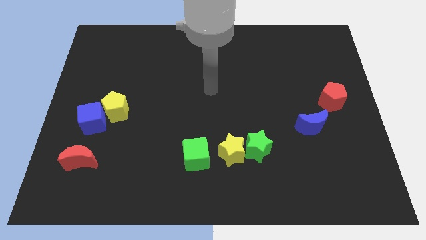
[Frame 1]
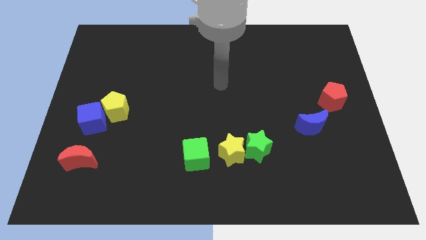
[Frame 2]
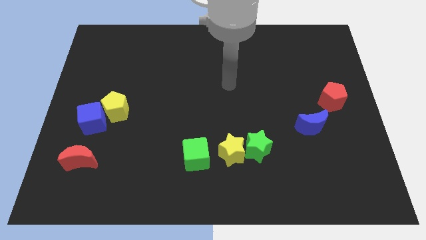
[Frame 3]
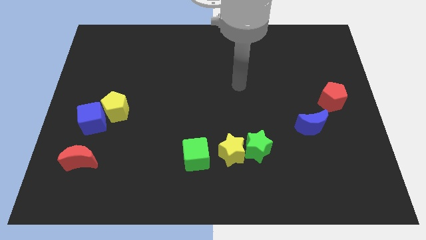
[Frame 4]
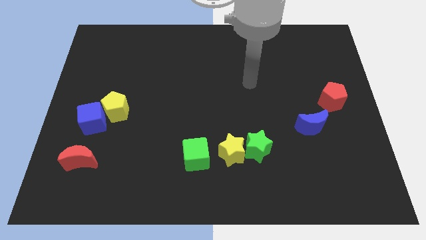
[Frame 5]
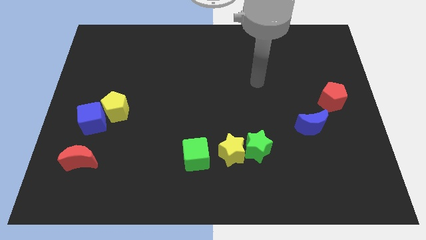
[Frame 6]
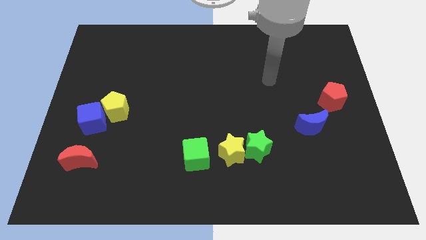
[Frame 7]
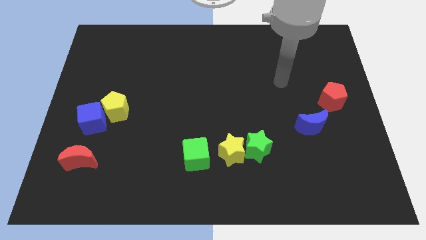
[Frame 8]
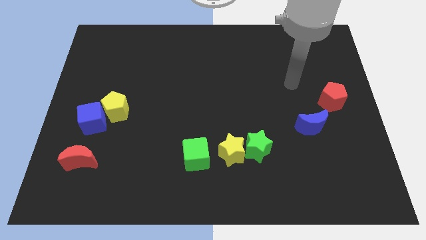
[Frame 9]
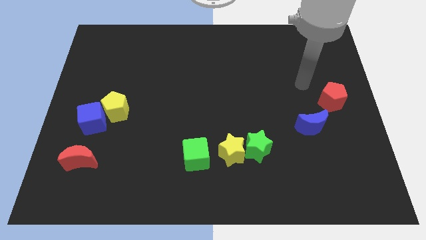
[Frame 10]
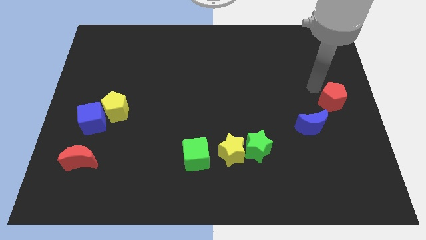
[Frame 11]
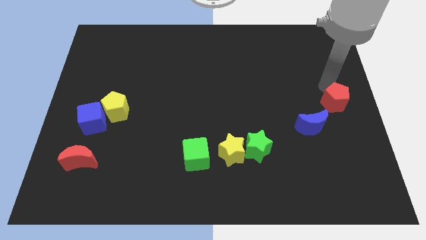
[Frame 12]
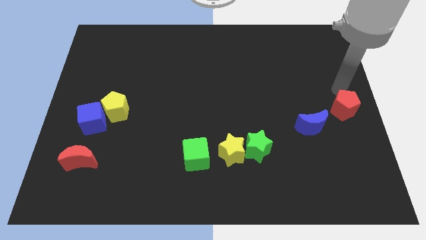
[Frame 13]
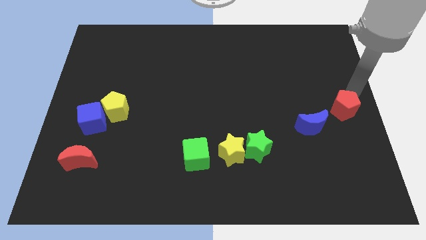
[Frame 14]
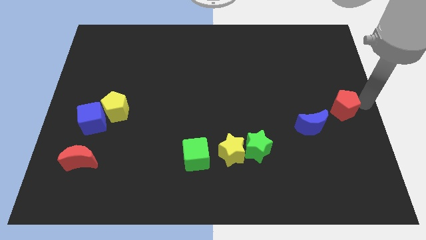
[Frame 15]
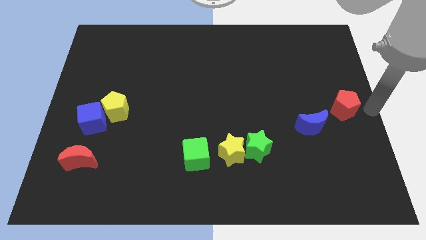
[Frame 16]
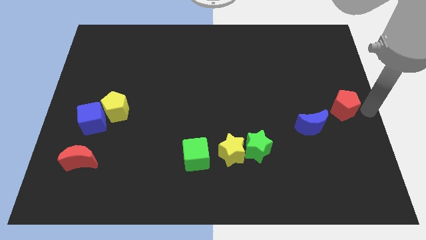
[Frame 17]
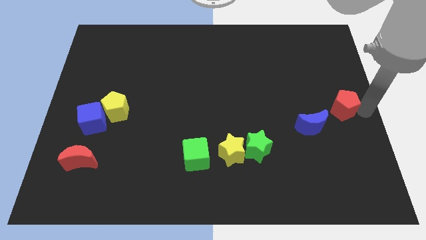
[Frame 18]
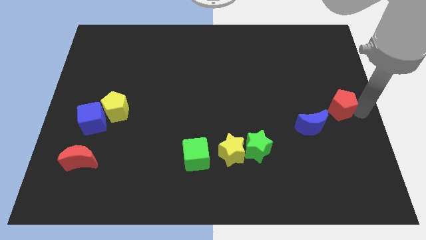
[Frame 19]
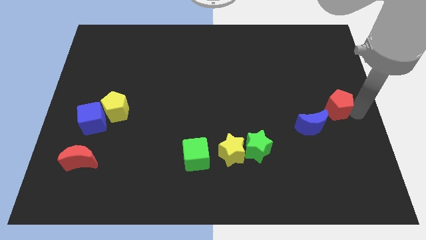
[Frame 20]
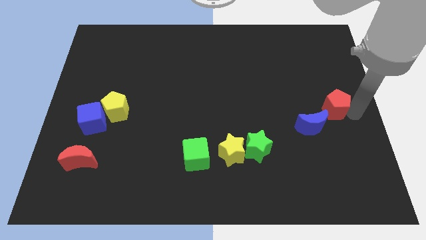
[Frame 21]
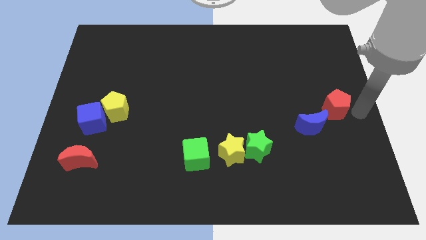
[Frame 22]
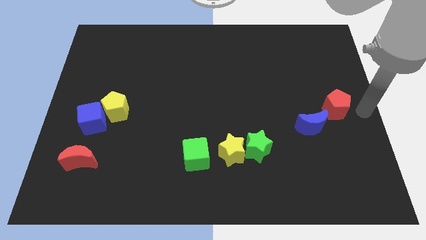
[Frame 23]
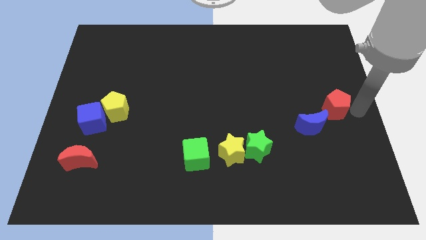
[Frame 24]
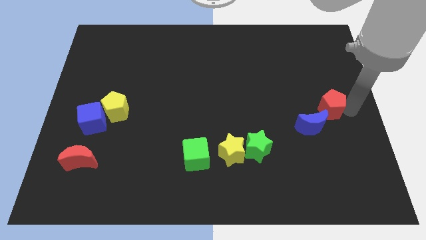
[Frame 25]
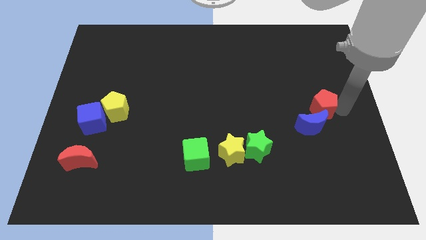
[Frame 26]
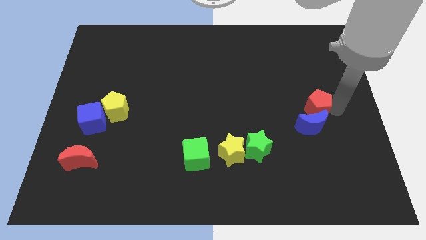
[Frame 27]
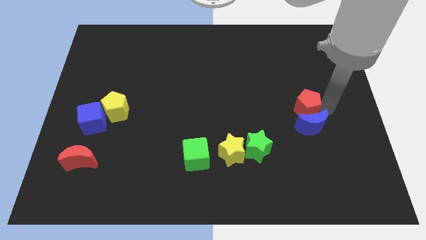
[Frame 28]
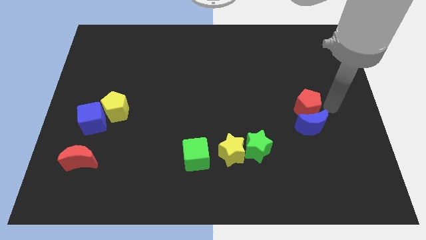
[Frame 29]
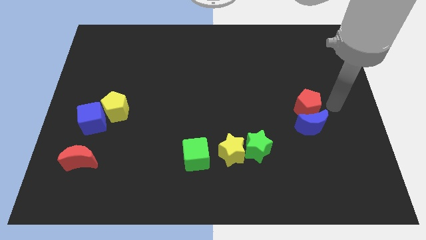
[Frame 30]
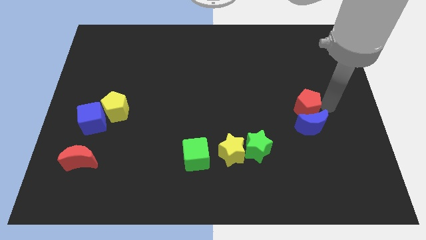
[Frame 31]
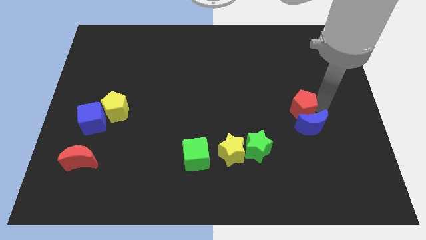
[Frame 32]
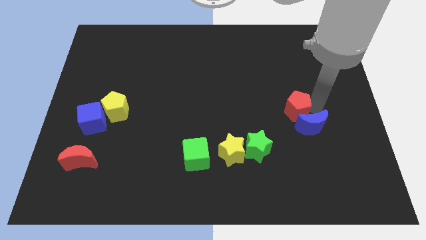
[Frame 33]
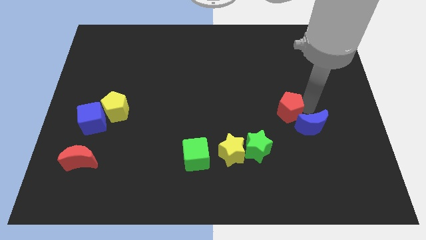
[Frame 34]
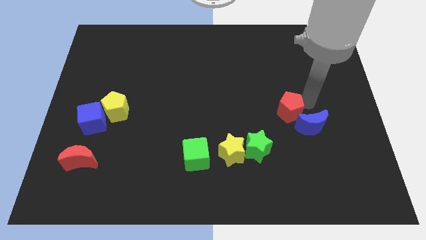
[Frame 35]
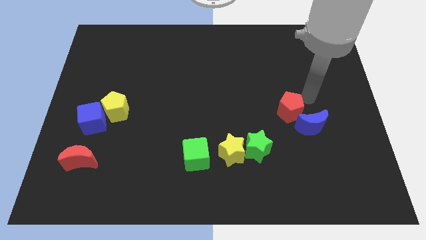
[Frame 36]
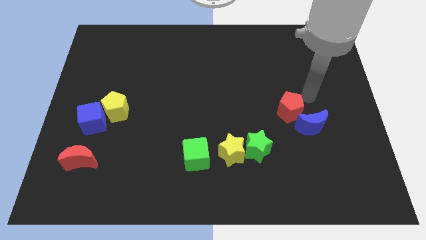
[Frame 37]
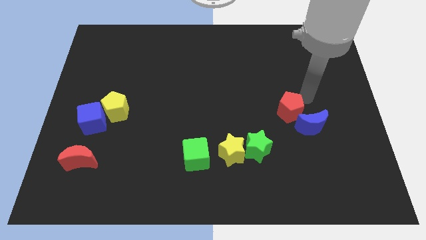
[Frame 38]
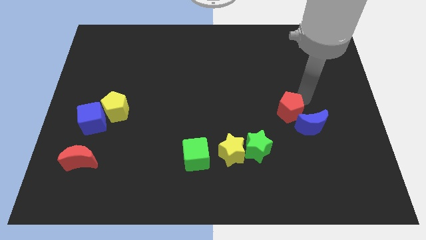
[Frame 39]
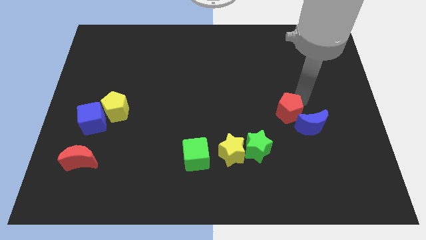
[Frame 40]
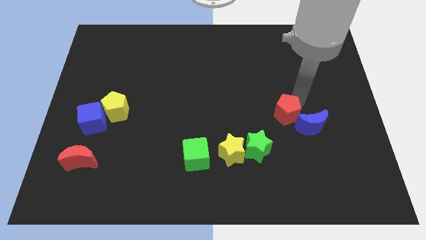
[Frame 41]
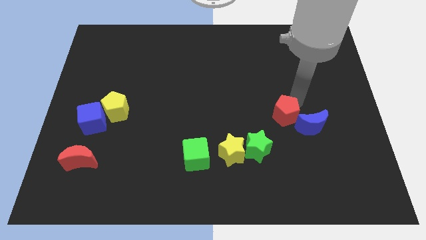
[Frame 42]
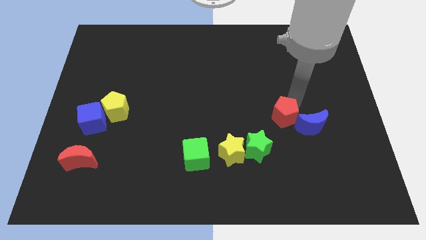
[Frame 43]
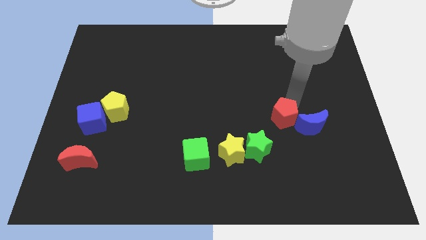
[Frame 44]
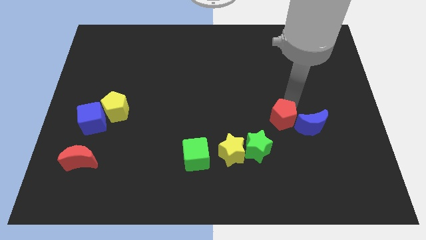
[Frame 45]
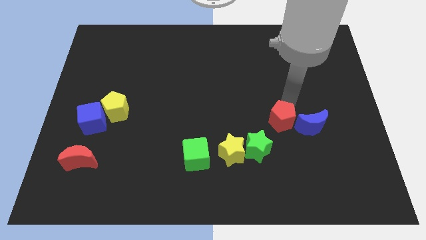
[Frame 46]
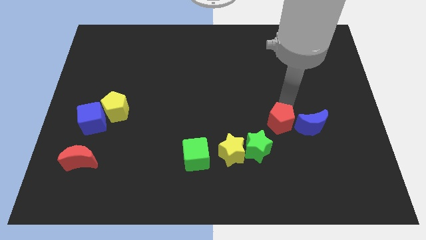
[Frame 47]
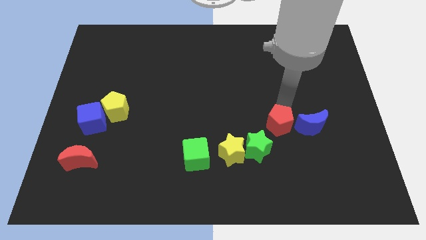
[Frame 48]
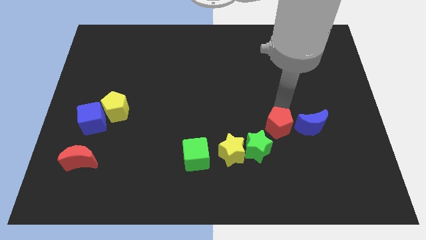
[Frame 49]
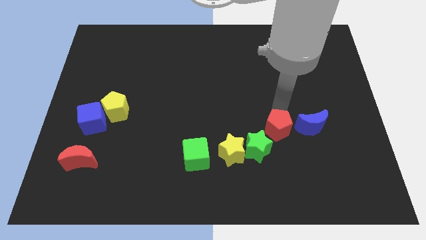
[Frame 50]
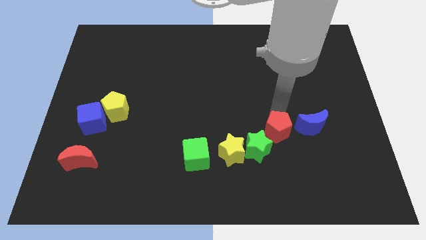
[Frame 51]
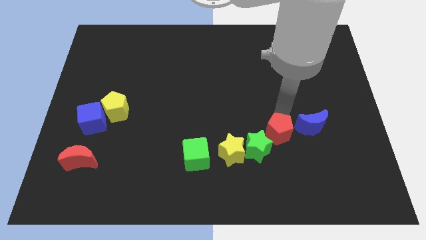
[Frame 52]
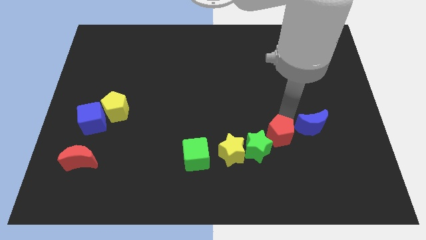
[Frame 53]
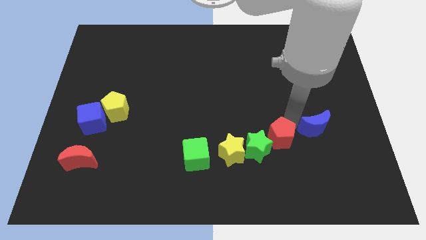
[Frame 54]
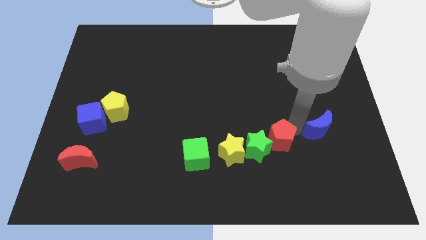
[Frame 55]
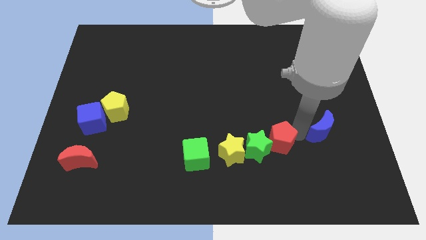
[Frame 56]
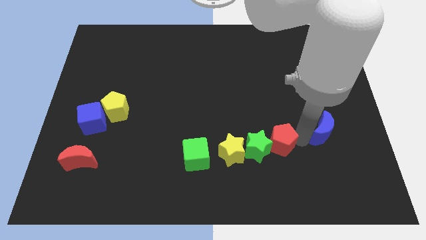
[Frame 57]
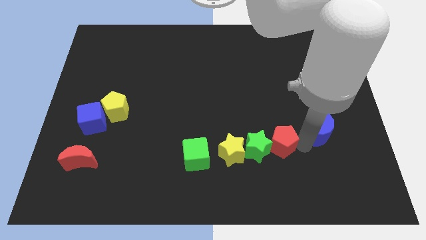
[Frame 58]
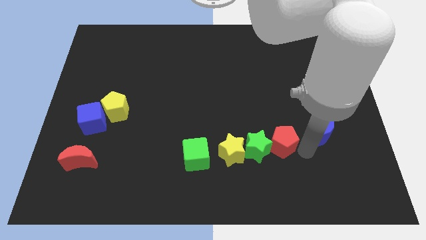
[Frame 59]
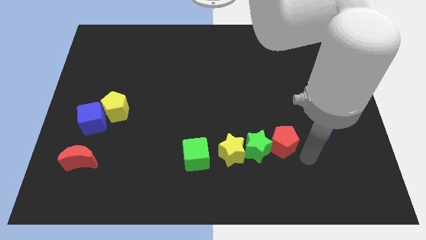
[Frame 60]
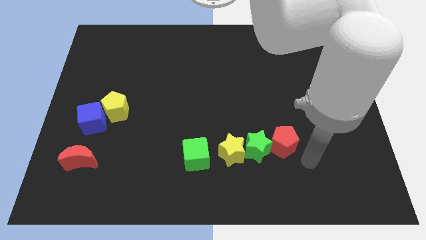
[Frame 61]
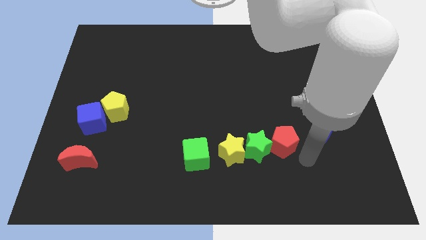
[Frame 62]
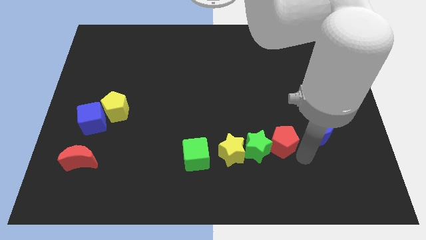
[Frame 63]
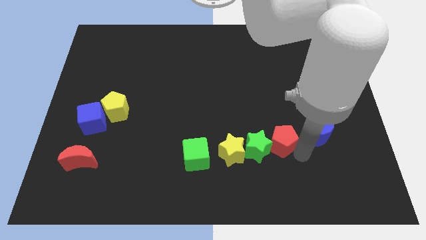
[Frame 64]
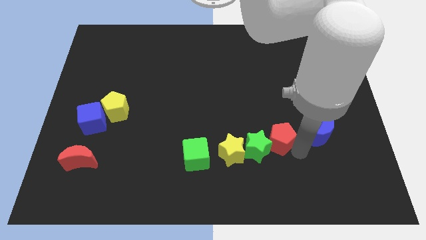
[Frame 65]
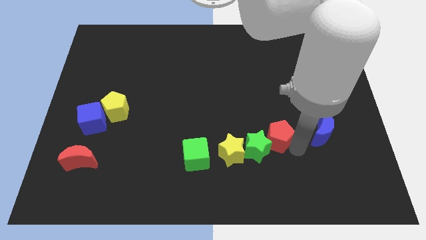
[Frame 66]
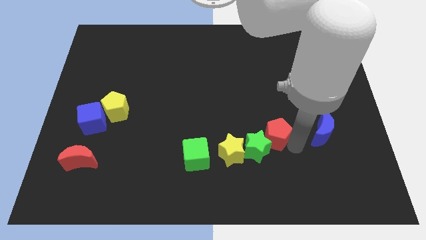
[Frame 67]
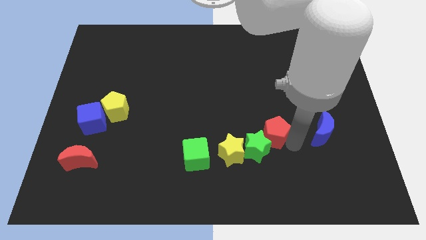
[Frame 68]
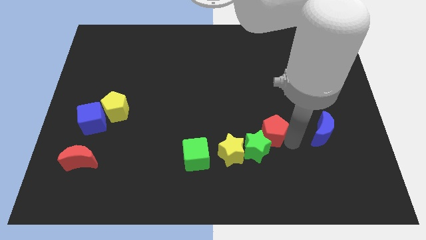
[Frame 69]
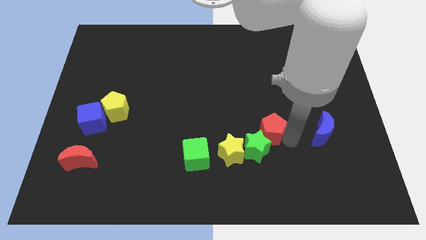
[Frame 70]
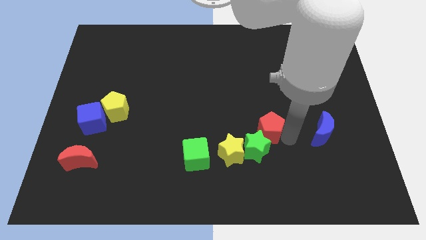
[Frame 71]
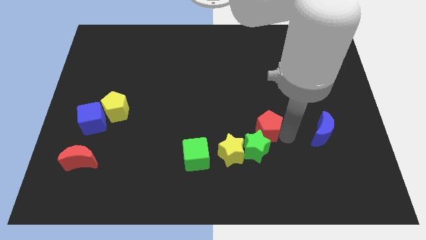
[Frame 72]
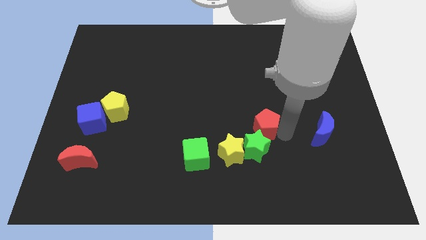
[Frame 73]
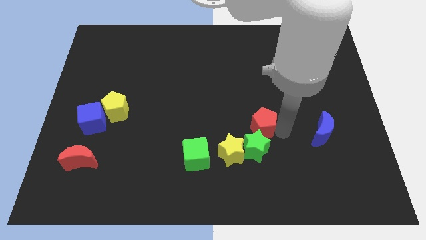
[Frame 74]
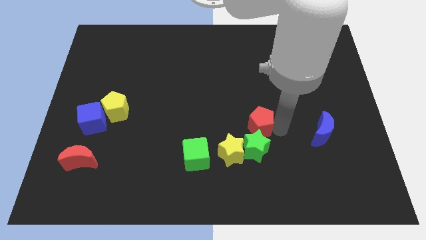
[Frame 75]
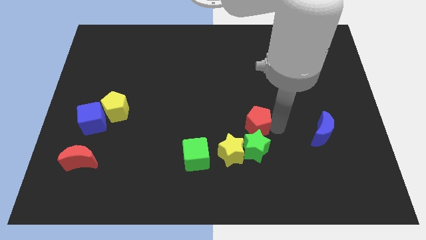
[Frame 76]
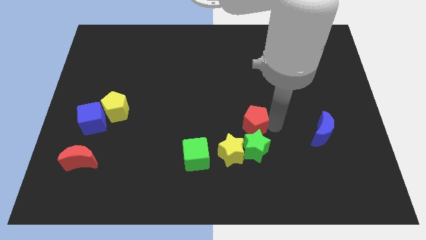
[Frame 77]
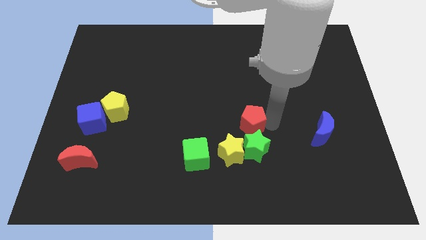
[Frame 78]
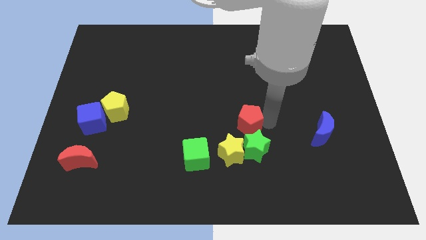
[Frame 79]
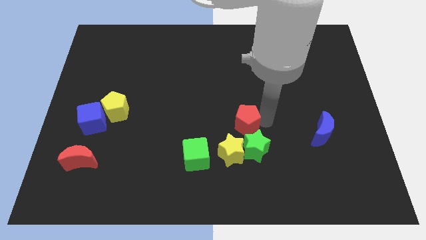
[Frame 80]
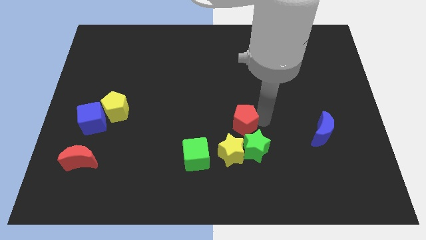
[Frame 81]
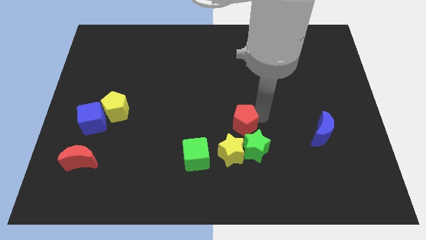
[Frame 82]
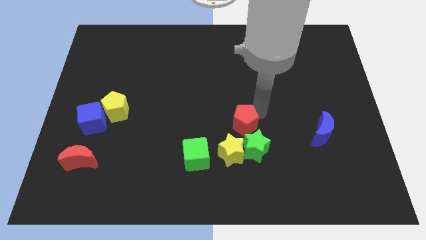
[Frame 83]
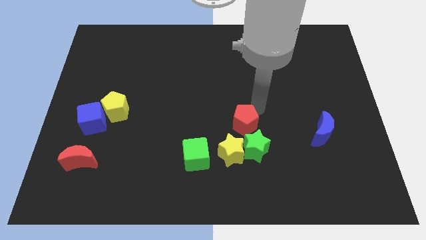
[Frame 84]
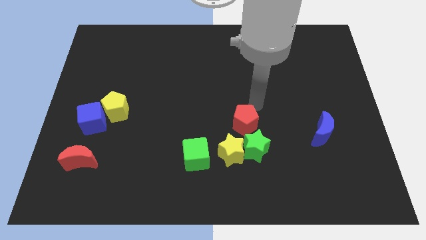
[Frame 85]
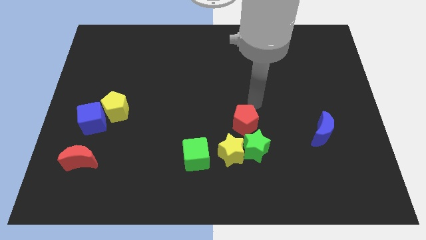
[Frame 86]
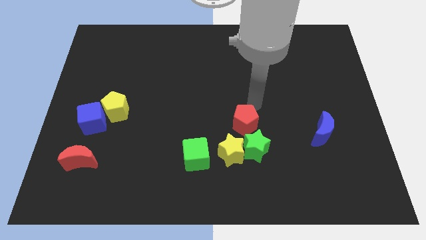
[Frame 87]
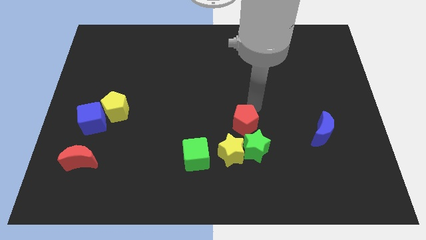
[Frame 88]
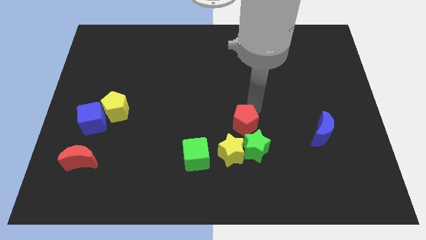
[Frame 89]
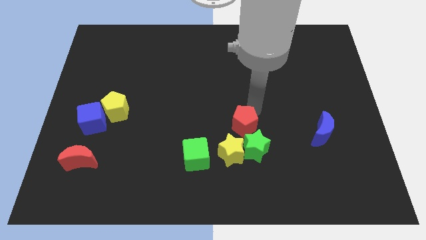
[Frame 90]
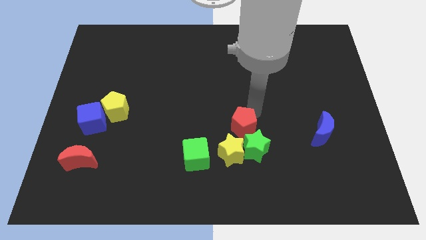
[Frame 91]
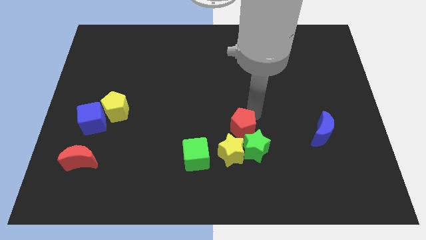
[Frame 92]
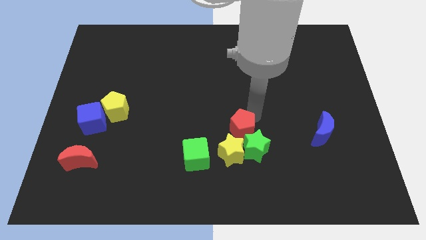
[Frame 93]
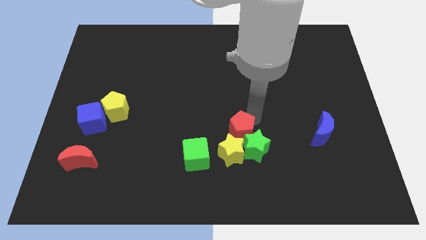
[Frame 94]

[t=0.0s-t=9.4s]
slide the red pentagon close to the yellow star
